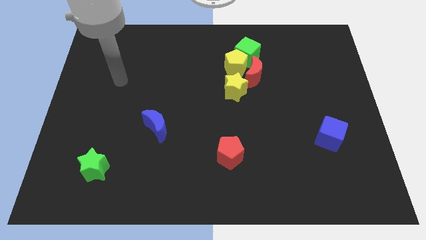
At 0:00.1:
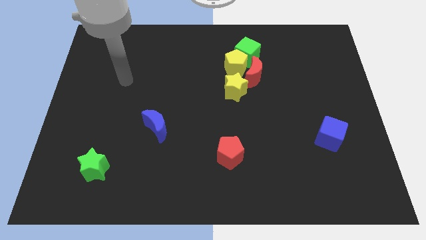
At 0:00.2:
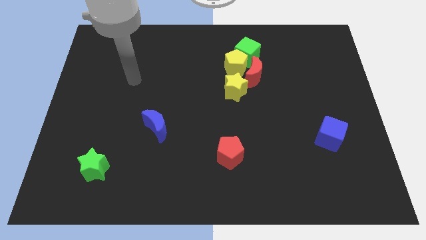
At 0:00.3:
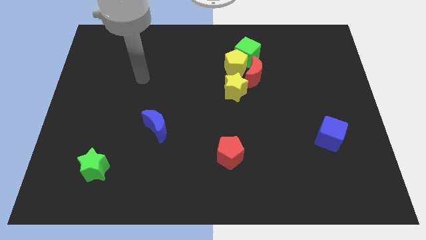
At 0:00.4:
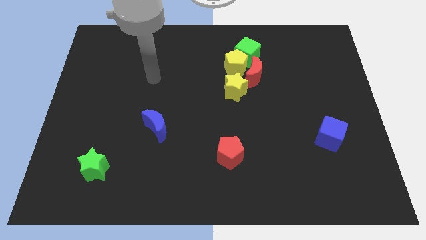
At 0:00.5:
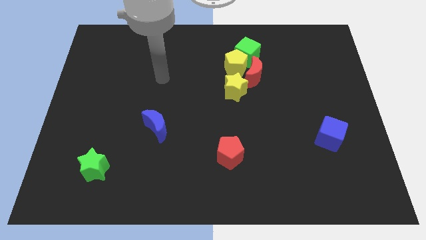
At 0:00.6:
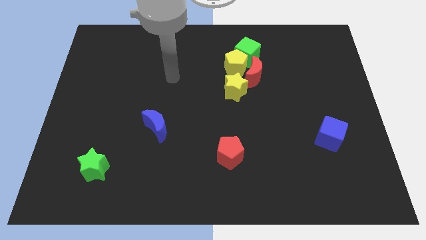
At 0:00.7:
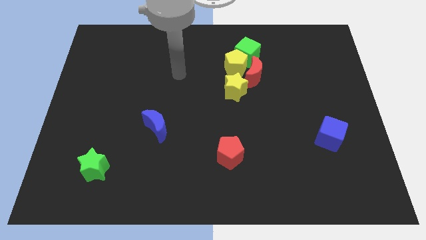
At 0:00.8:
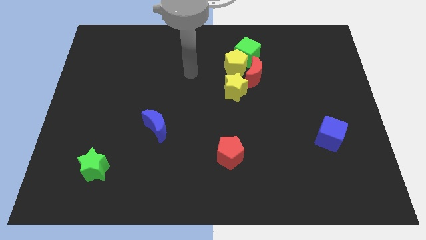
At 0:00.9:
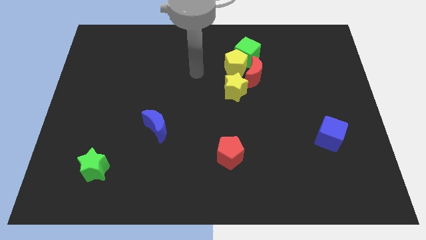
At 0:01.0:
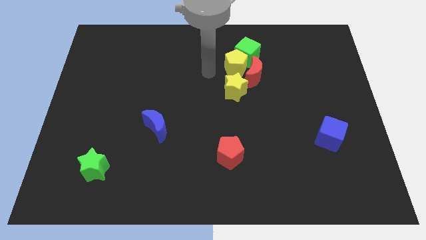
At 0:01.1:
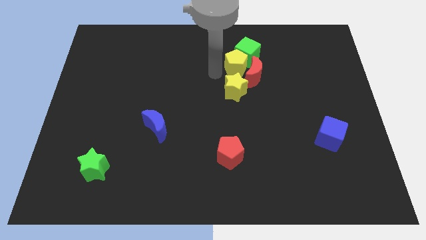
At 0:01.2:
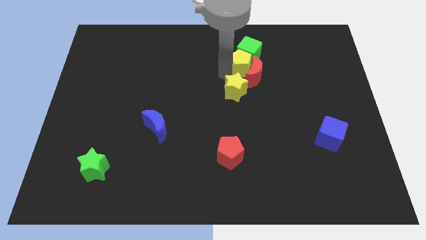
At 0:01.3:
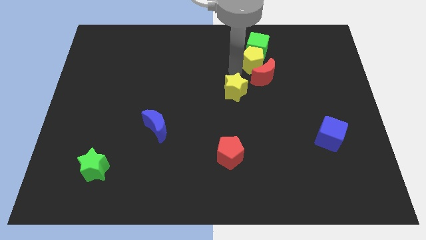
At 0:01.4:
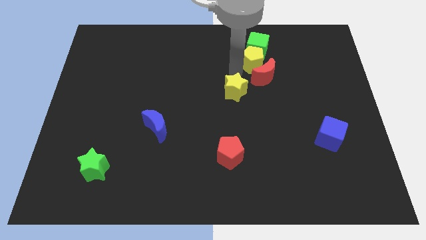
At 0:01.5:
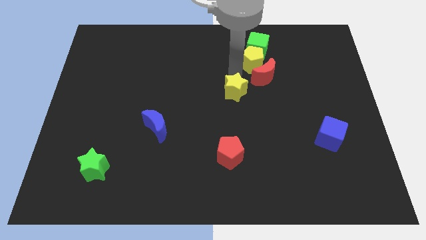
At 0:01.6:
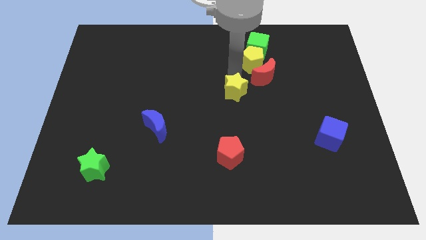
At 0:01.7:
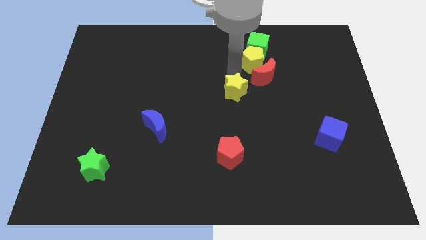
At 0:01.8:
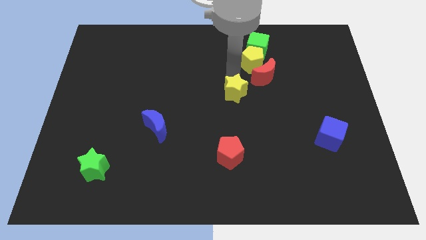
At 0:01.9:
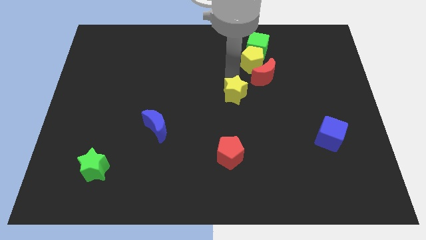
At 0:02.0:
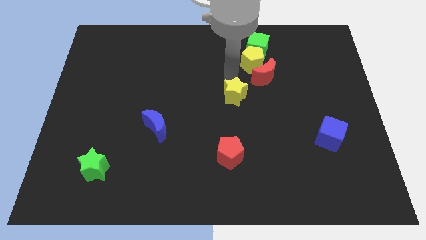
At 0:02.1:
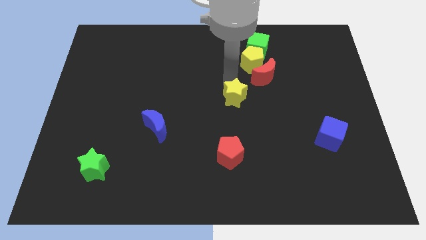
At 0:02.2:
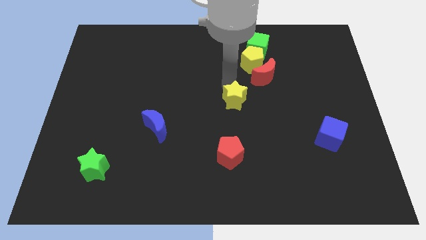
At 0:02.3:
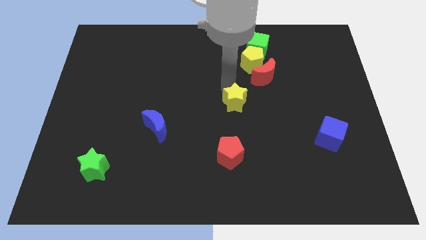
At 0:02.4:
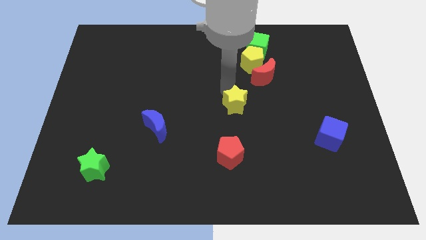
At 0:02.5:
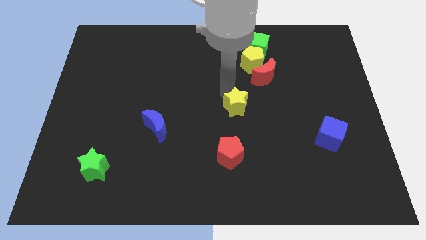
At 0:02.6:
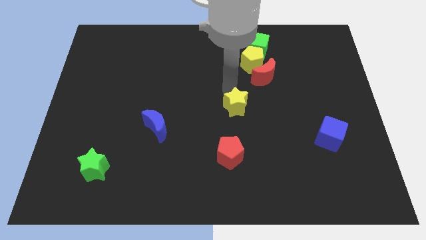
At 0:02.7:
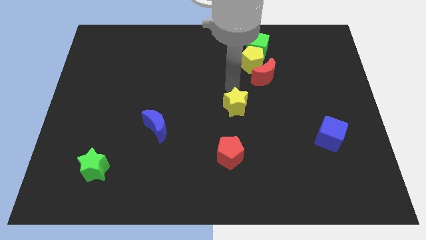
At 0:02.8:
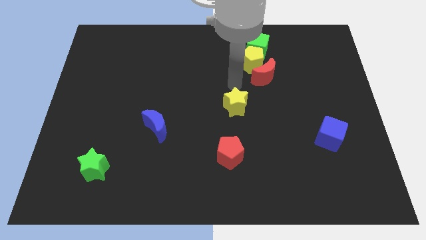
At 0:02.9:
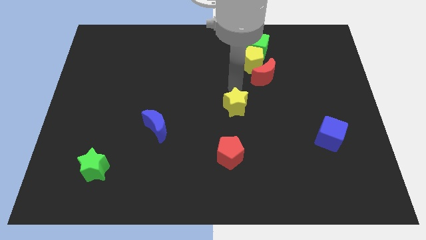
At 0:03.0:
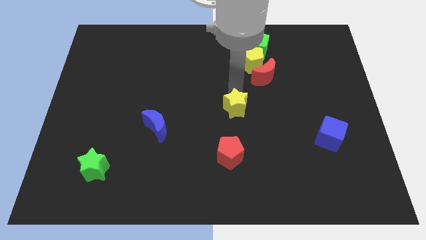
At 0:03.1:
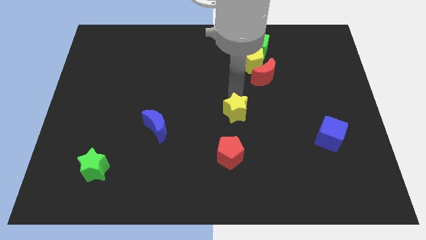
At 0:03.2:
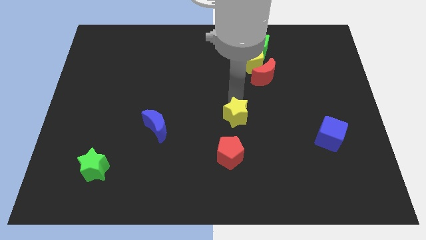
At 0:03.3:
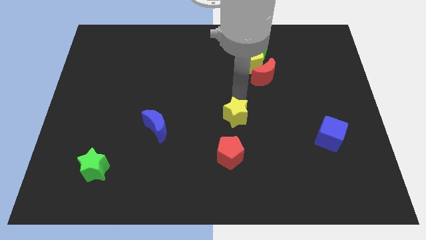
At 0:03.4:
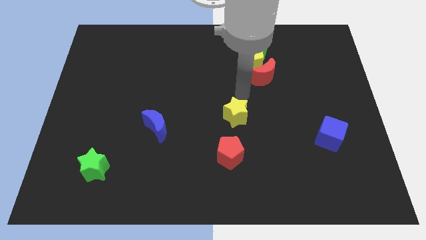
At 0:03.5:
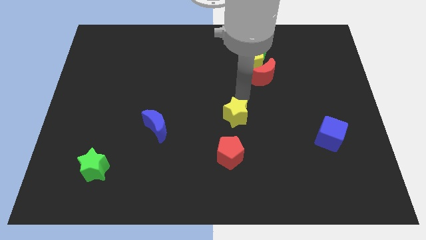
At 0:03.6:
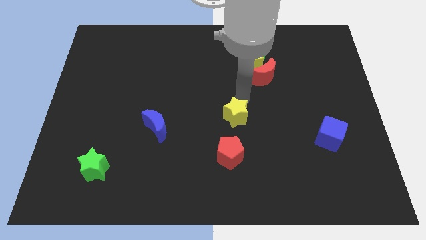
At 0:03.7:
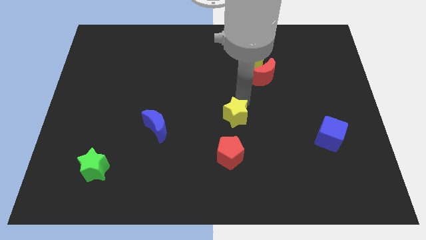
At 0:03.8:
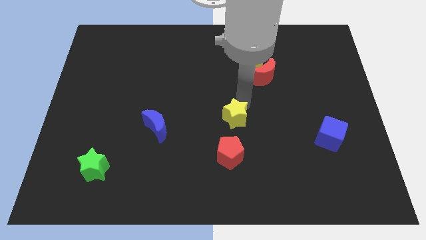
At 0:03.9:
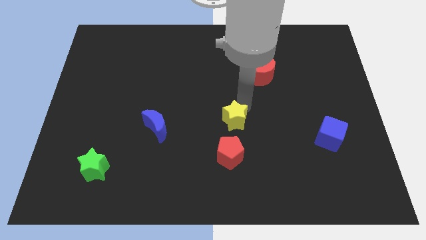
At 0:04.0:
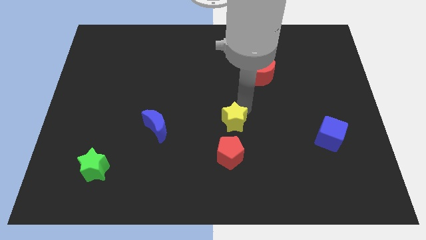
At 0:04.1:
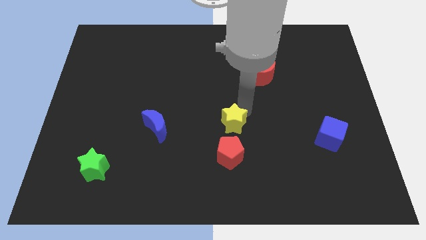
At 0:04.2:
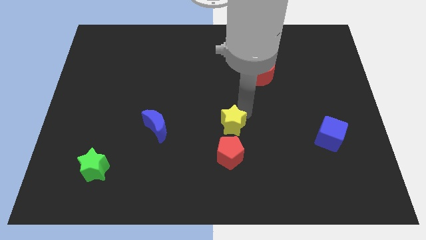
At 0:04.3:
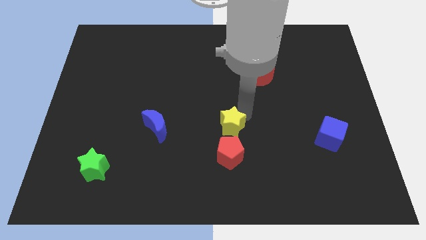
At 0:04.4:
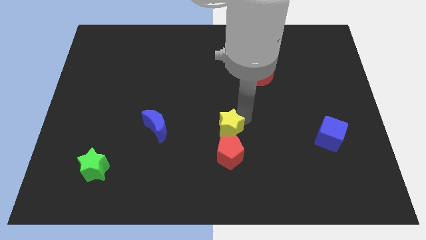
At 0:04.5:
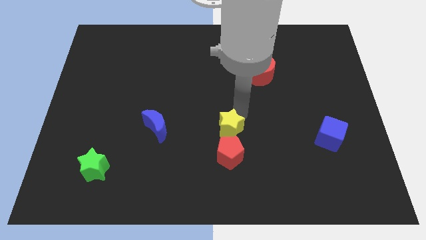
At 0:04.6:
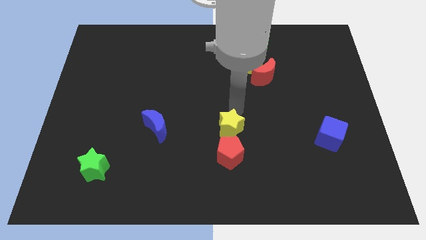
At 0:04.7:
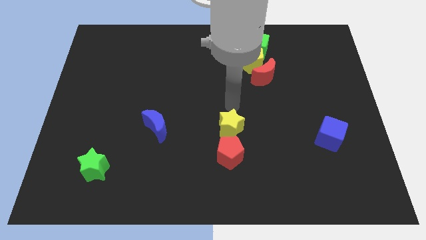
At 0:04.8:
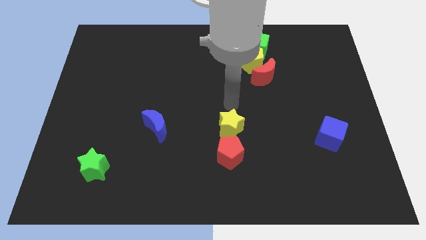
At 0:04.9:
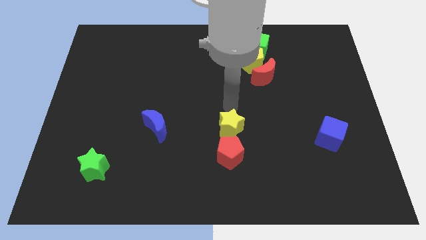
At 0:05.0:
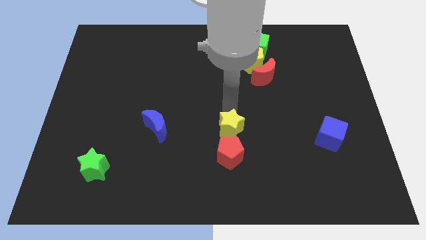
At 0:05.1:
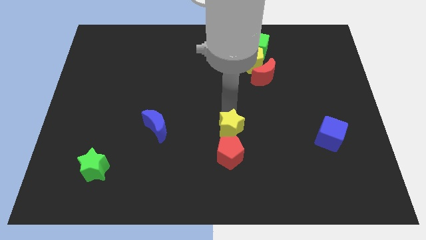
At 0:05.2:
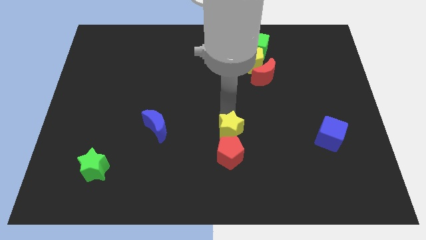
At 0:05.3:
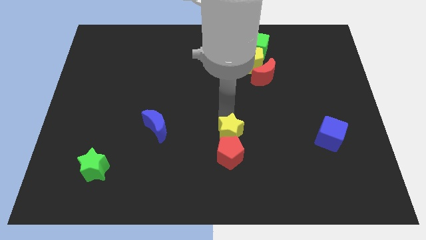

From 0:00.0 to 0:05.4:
move the yellow star to the red pentagon

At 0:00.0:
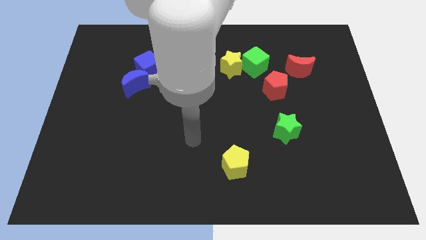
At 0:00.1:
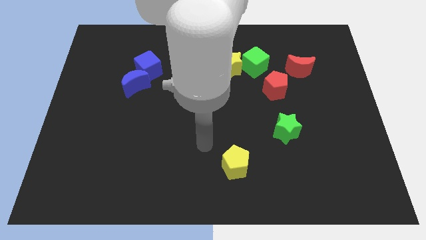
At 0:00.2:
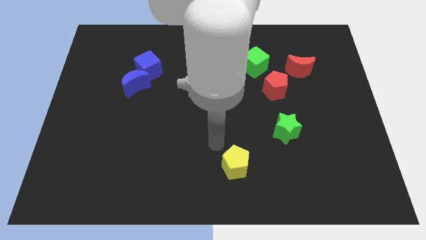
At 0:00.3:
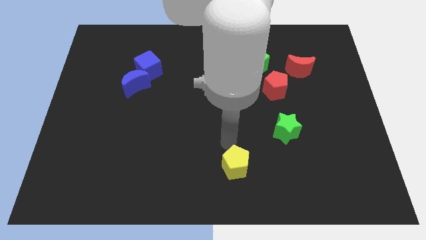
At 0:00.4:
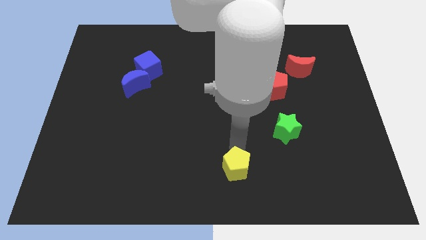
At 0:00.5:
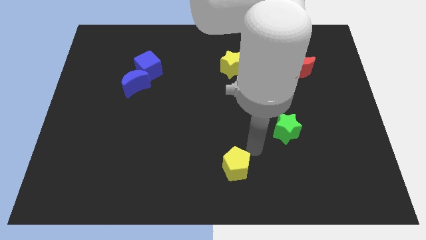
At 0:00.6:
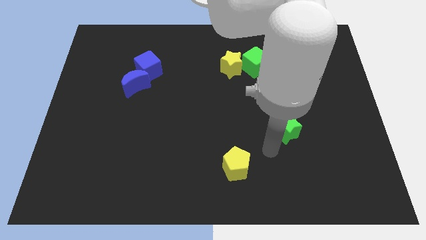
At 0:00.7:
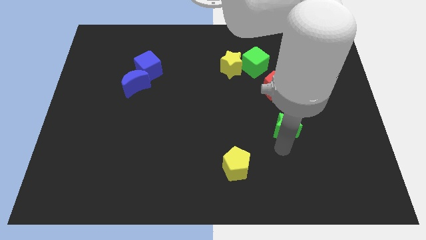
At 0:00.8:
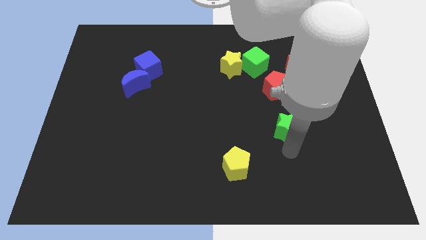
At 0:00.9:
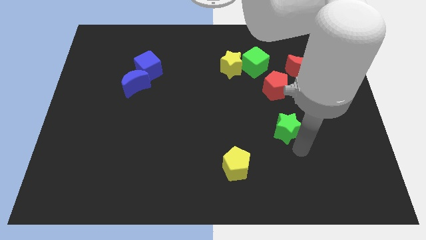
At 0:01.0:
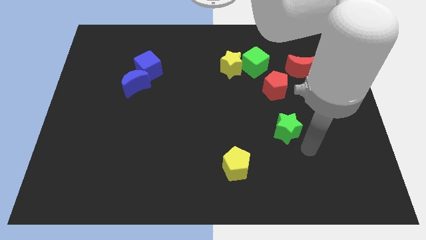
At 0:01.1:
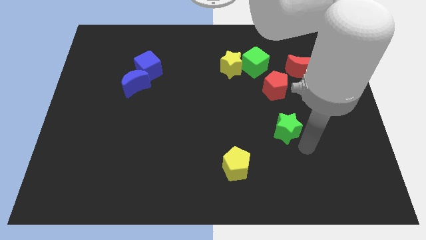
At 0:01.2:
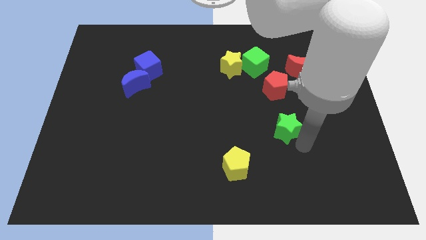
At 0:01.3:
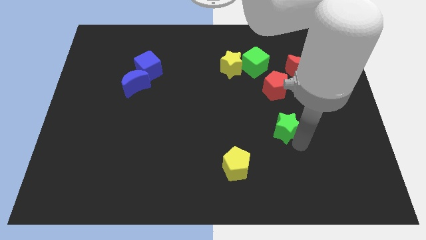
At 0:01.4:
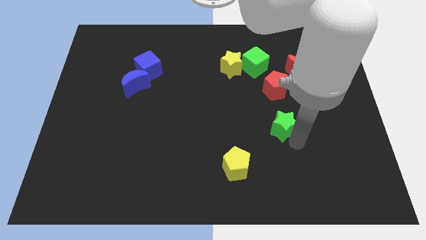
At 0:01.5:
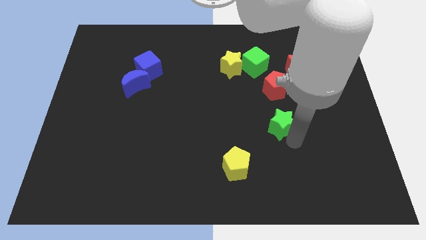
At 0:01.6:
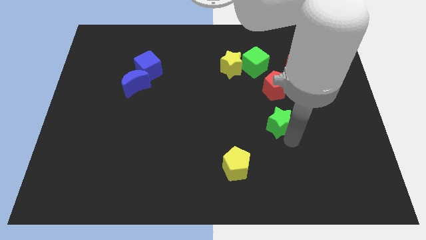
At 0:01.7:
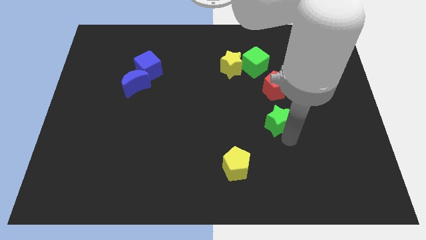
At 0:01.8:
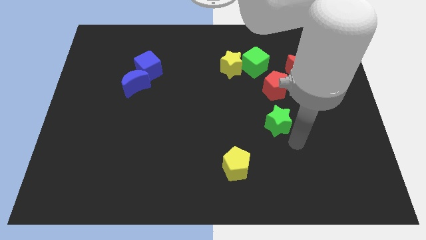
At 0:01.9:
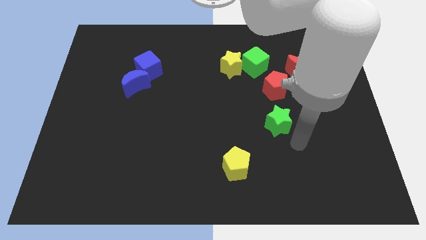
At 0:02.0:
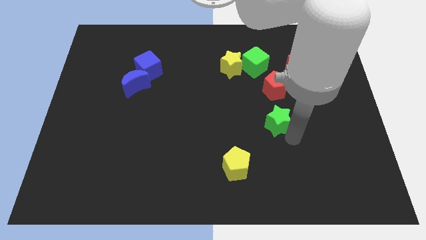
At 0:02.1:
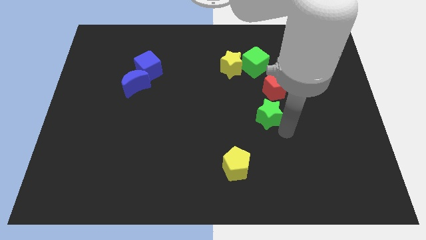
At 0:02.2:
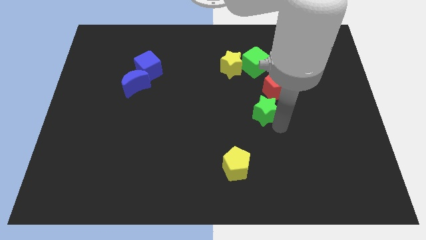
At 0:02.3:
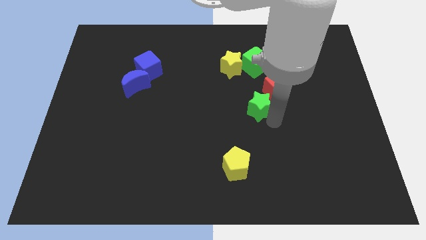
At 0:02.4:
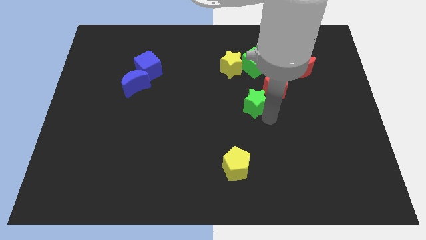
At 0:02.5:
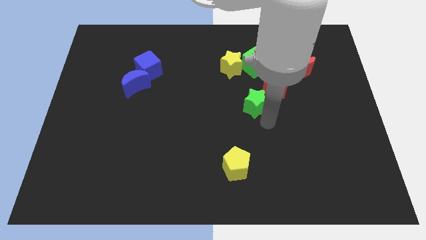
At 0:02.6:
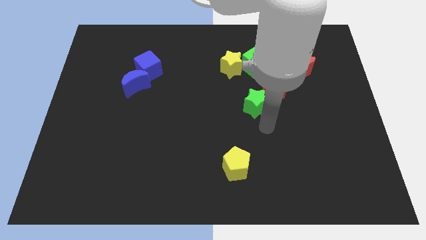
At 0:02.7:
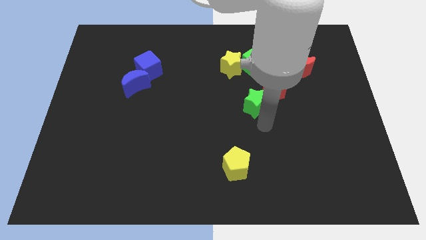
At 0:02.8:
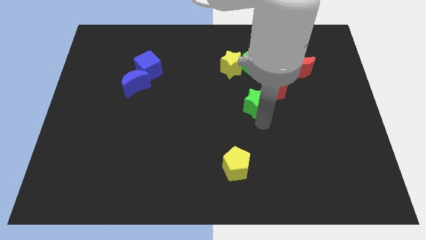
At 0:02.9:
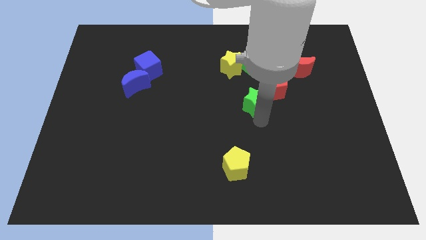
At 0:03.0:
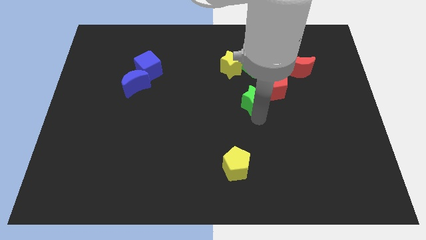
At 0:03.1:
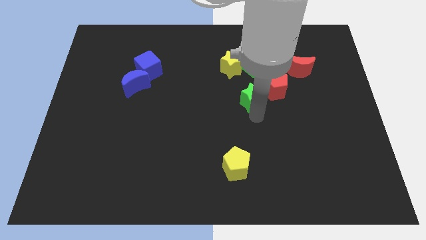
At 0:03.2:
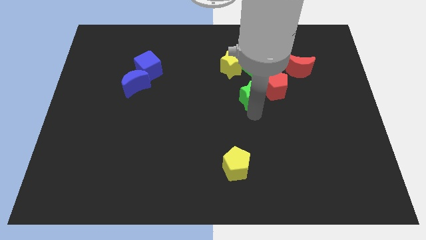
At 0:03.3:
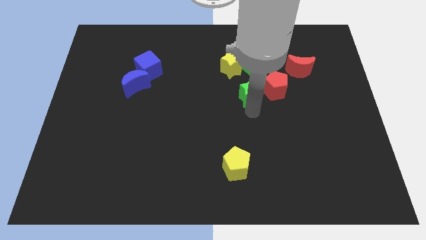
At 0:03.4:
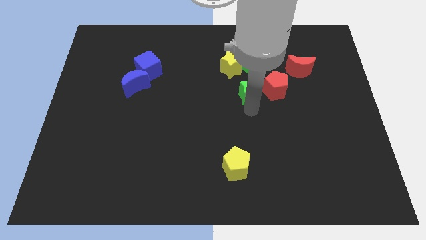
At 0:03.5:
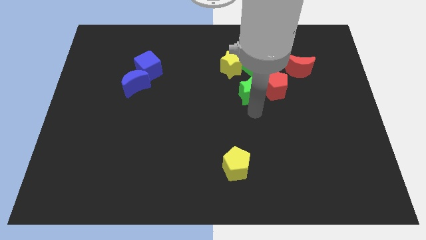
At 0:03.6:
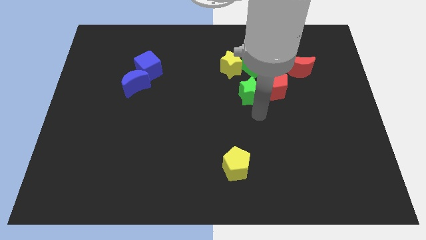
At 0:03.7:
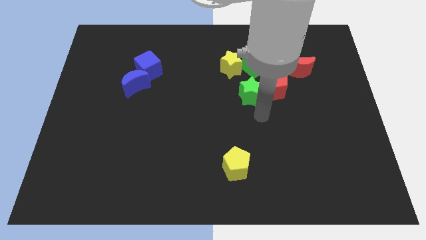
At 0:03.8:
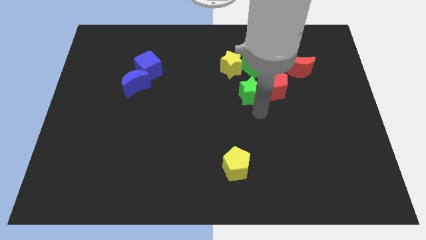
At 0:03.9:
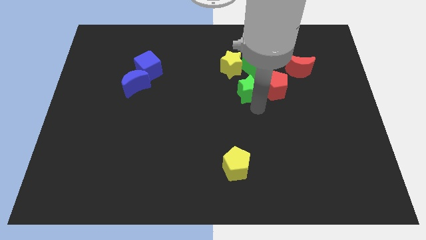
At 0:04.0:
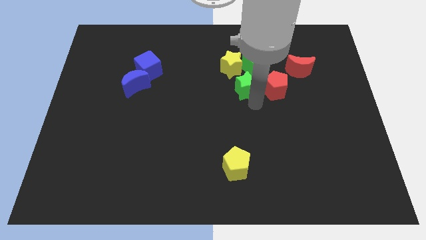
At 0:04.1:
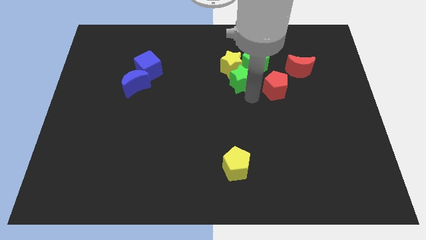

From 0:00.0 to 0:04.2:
slide the green star to the yellow star
